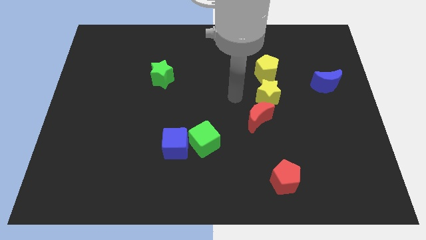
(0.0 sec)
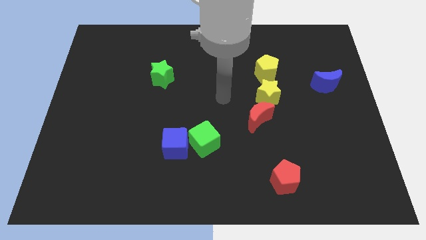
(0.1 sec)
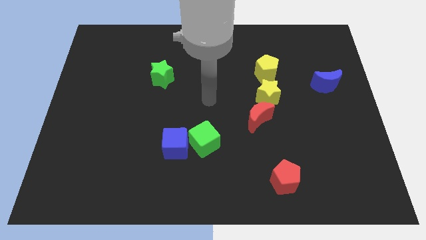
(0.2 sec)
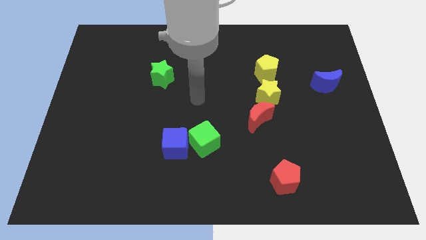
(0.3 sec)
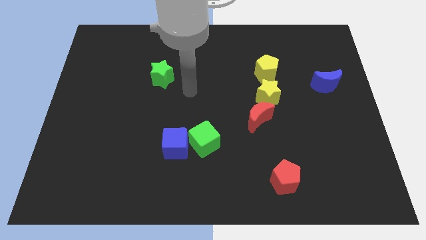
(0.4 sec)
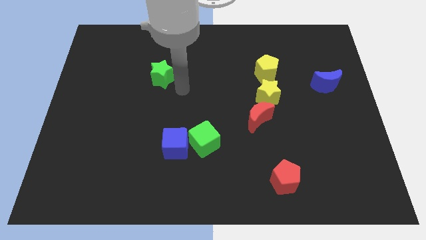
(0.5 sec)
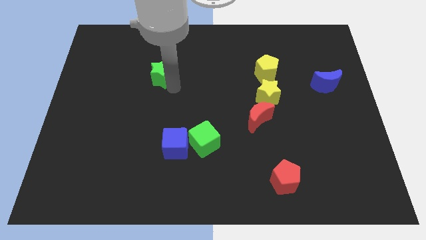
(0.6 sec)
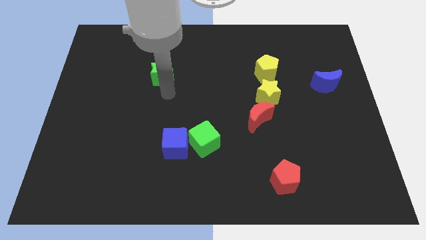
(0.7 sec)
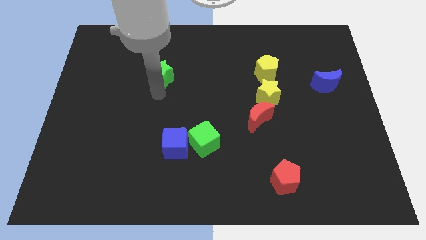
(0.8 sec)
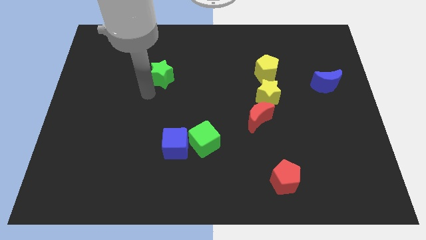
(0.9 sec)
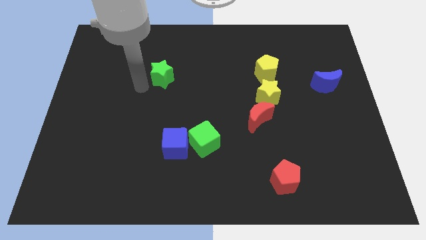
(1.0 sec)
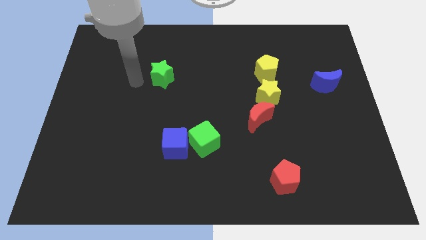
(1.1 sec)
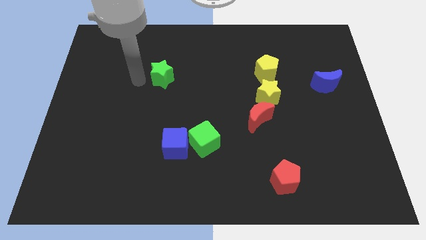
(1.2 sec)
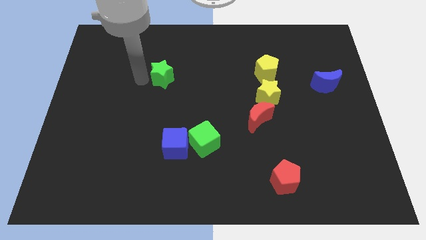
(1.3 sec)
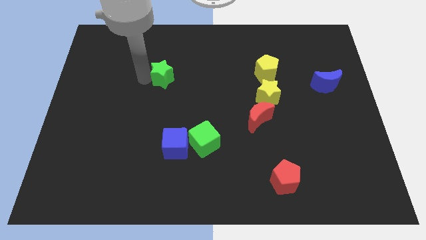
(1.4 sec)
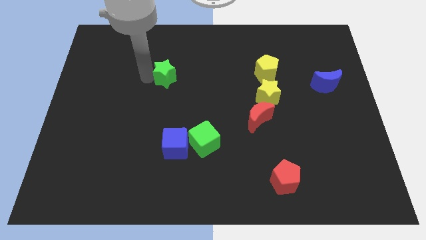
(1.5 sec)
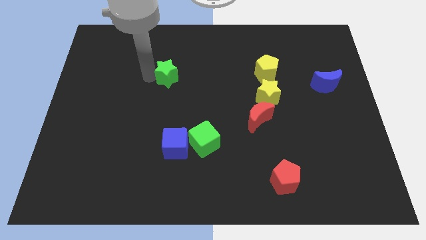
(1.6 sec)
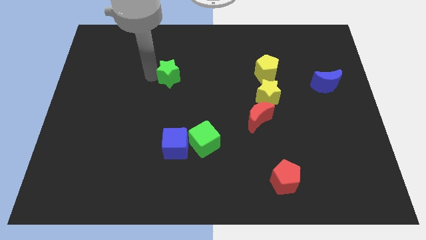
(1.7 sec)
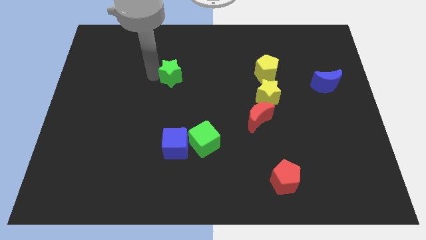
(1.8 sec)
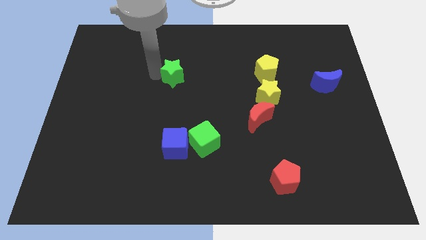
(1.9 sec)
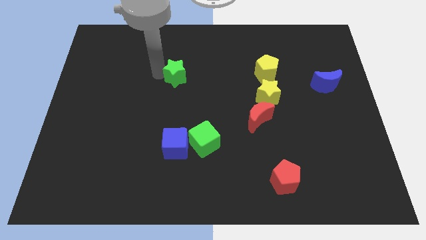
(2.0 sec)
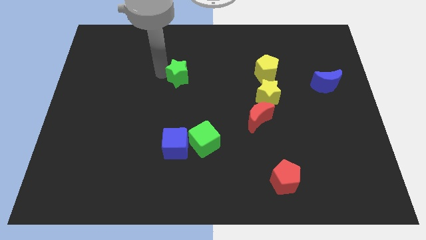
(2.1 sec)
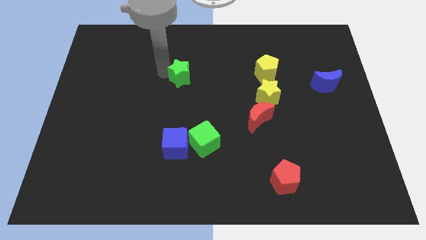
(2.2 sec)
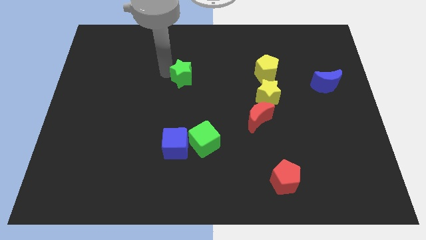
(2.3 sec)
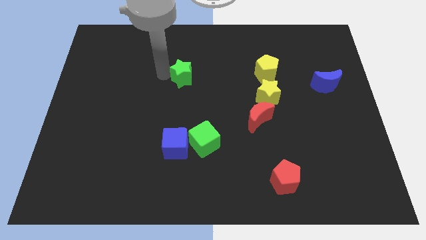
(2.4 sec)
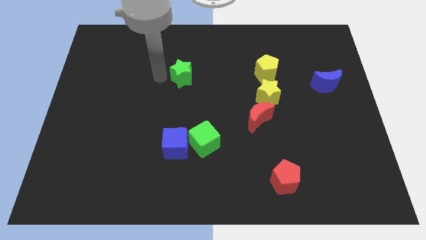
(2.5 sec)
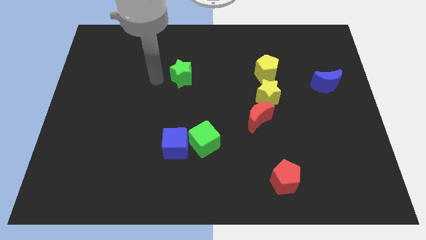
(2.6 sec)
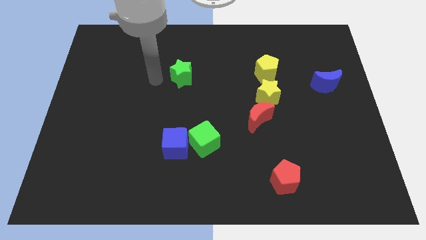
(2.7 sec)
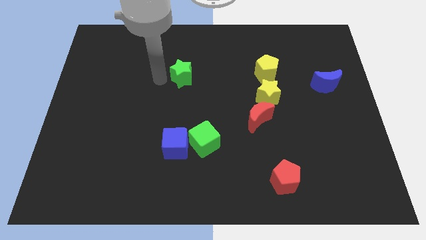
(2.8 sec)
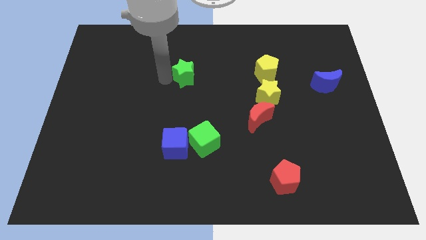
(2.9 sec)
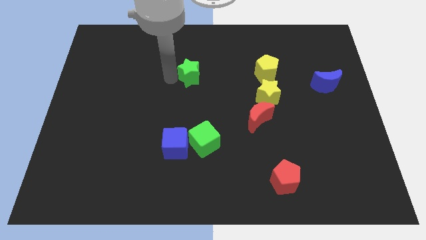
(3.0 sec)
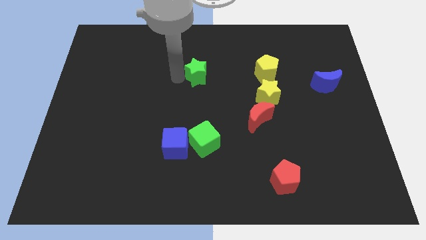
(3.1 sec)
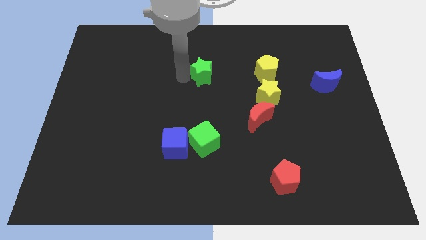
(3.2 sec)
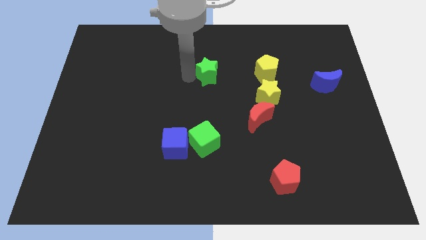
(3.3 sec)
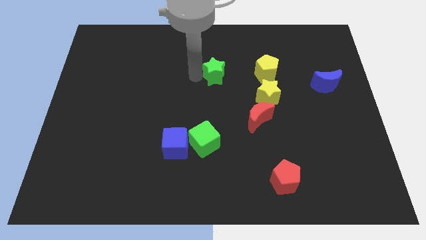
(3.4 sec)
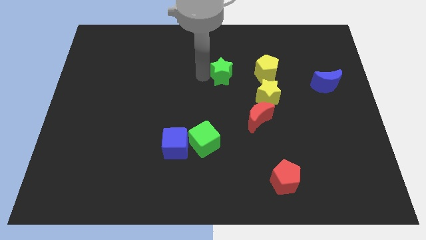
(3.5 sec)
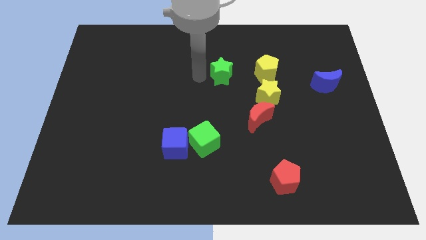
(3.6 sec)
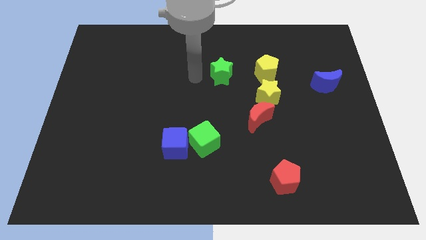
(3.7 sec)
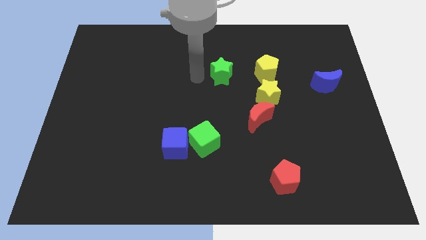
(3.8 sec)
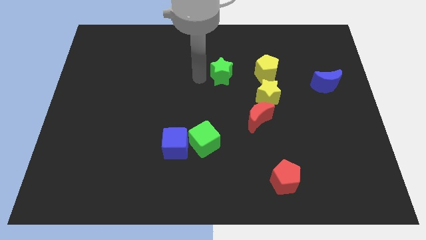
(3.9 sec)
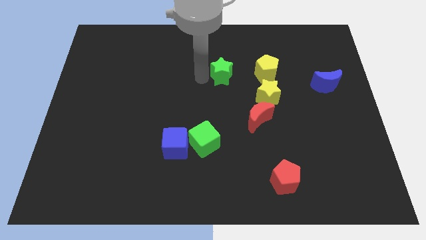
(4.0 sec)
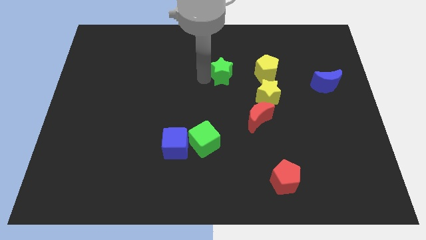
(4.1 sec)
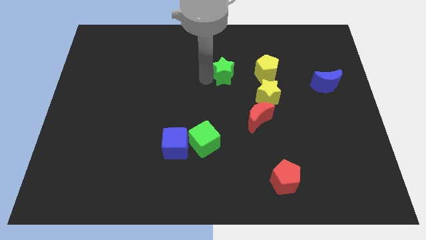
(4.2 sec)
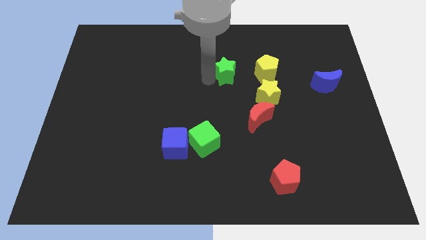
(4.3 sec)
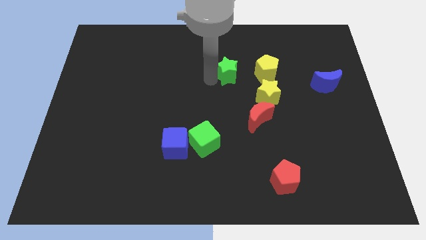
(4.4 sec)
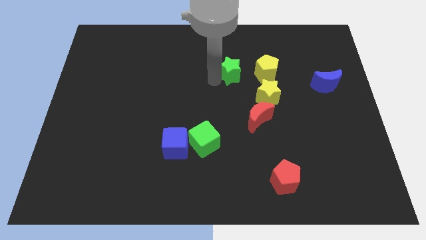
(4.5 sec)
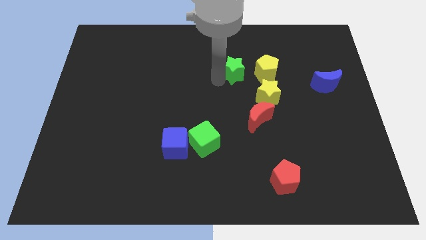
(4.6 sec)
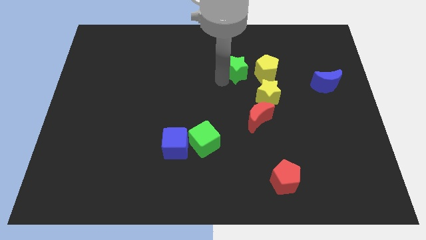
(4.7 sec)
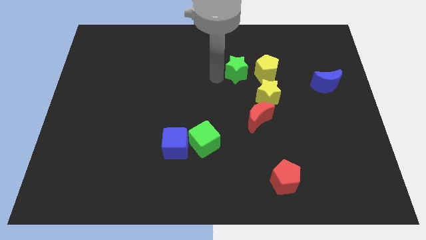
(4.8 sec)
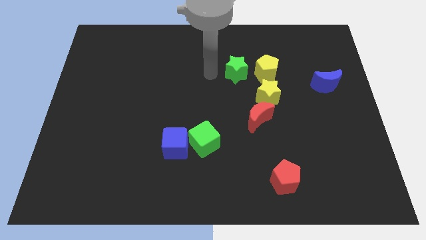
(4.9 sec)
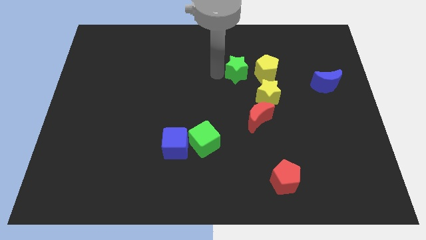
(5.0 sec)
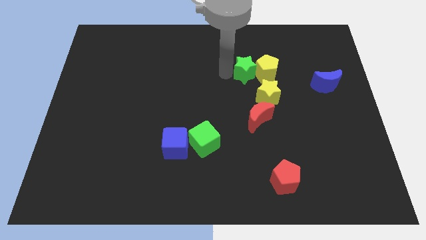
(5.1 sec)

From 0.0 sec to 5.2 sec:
push the green star to the yellow pentagon

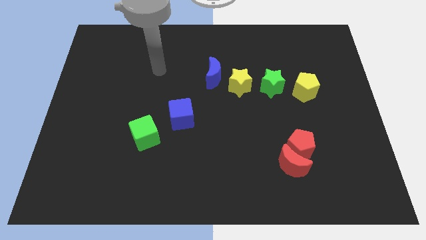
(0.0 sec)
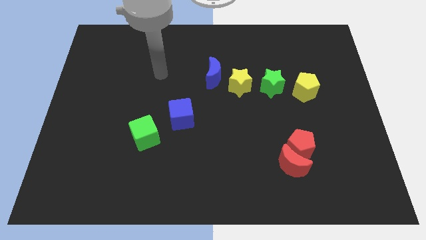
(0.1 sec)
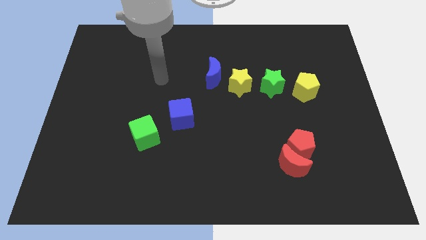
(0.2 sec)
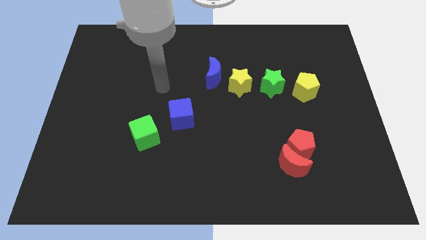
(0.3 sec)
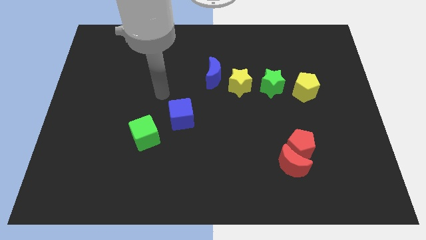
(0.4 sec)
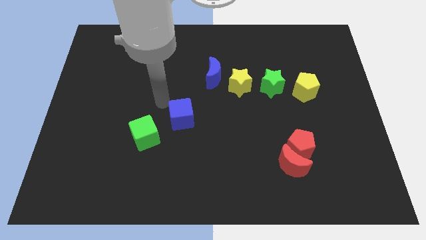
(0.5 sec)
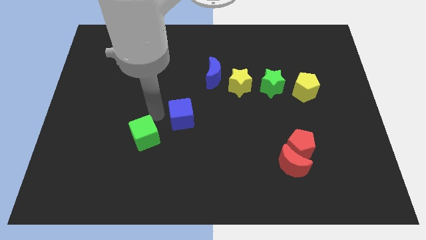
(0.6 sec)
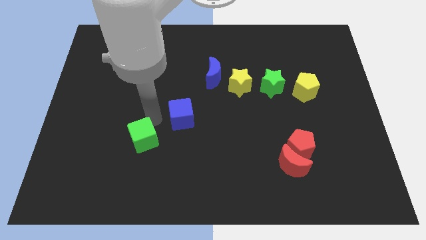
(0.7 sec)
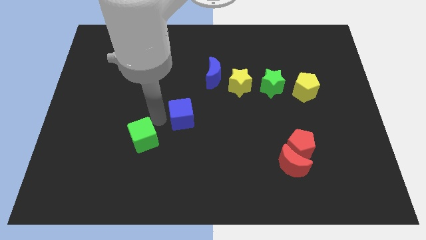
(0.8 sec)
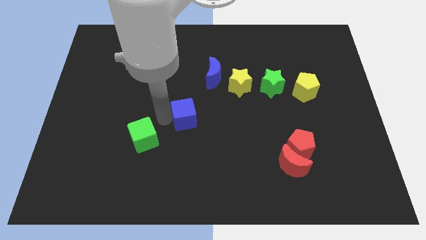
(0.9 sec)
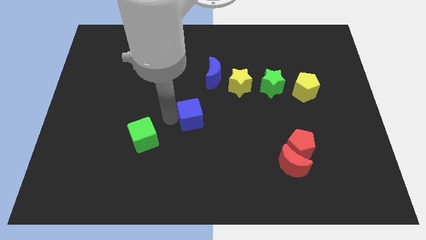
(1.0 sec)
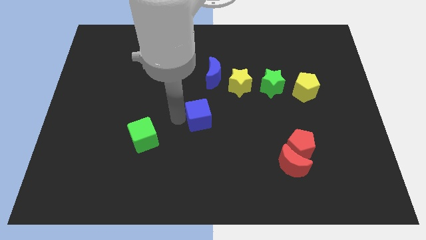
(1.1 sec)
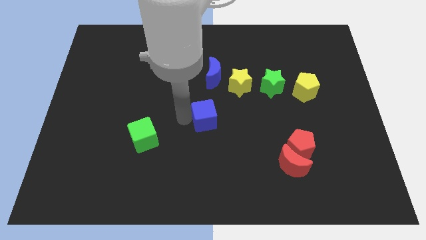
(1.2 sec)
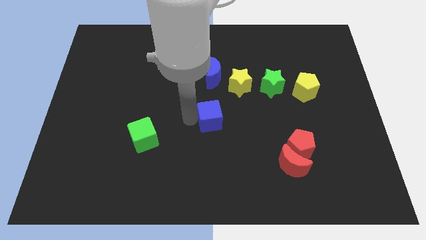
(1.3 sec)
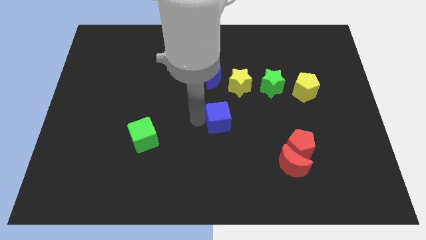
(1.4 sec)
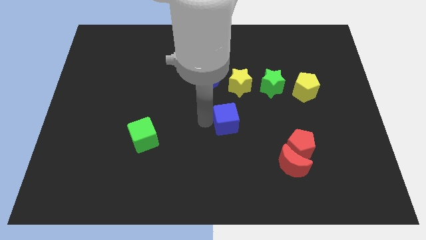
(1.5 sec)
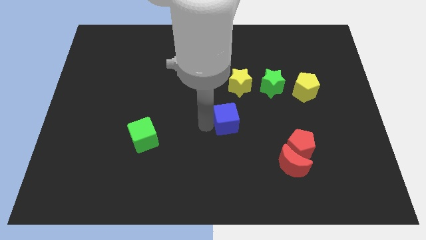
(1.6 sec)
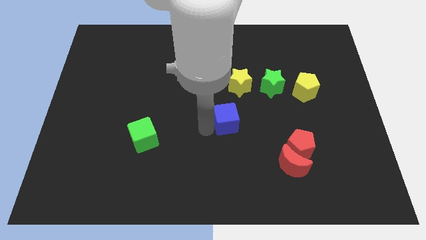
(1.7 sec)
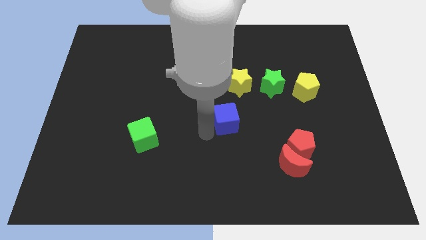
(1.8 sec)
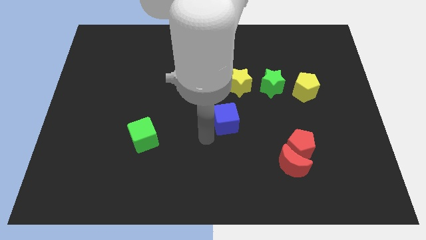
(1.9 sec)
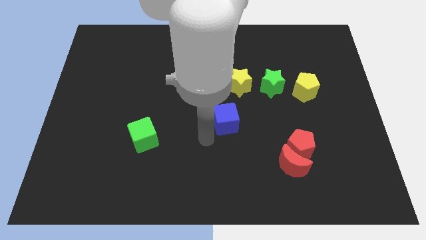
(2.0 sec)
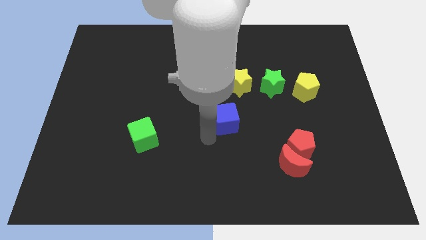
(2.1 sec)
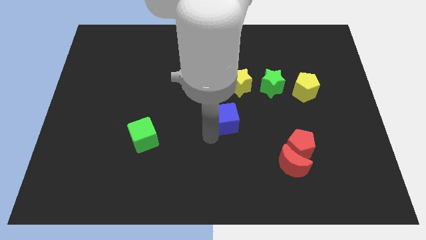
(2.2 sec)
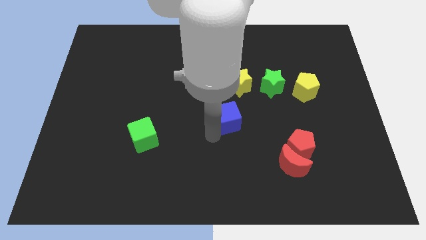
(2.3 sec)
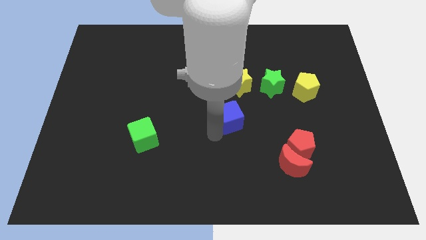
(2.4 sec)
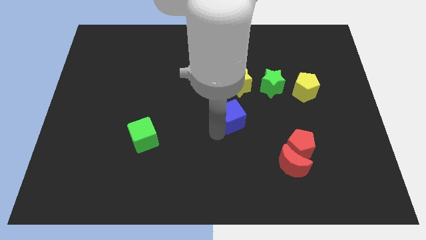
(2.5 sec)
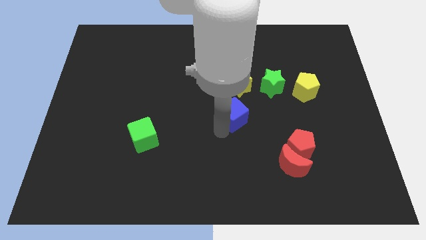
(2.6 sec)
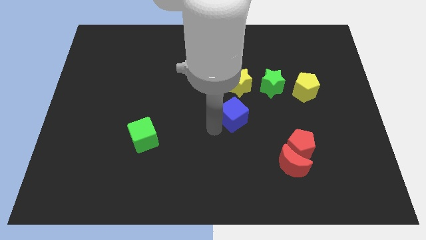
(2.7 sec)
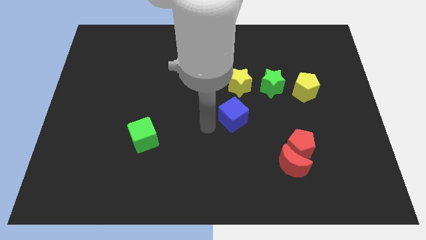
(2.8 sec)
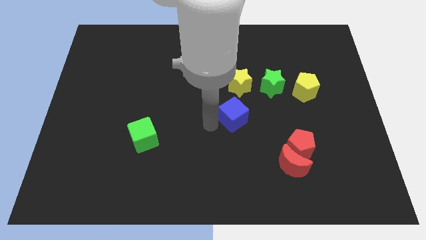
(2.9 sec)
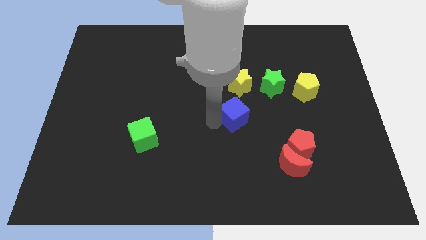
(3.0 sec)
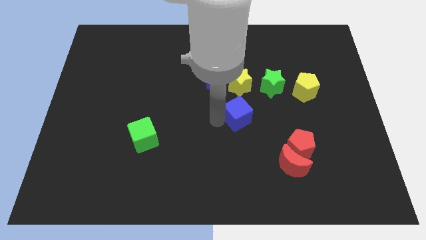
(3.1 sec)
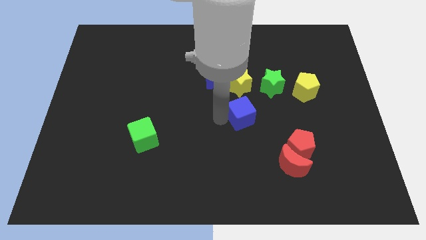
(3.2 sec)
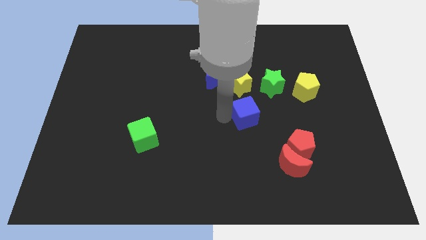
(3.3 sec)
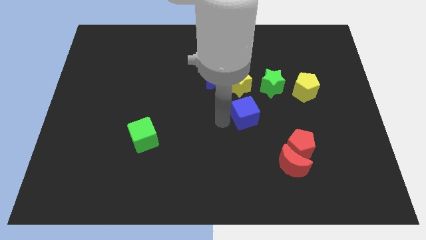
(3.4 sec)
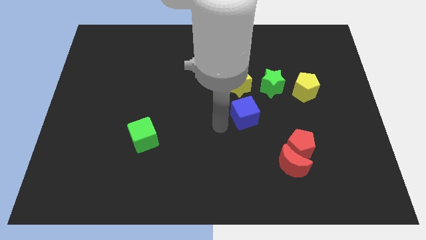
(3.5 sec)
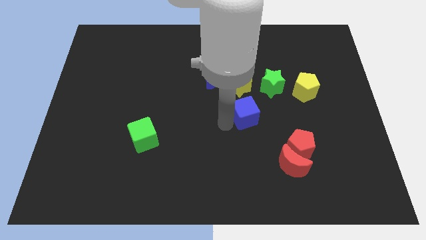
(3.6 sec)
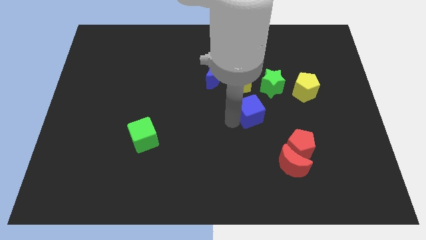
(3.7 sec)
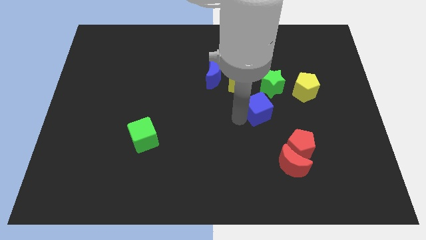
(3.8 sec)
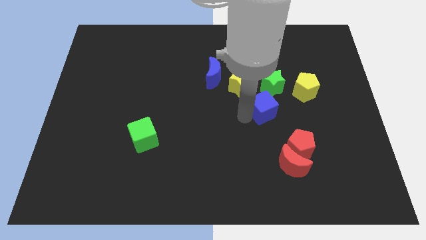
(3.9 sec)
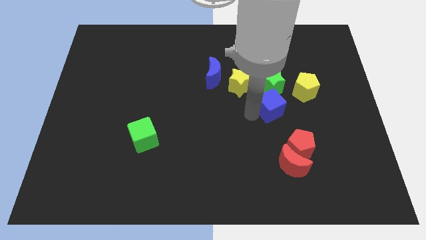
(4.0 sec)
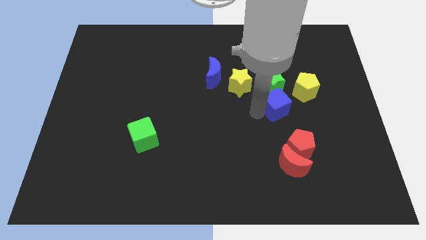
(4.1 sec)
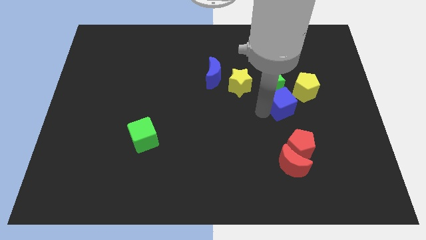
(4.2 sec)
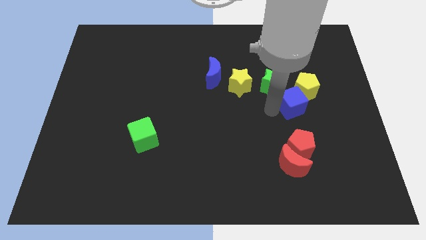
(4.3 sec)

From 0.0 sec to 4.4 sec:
put the blue cube next to the yellow pentagon
